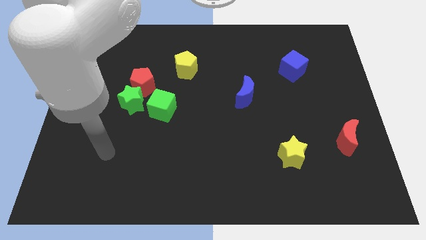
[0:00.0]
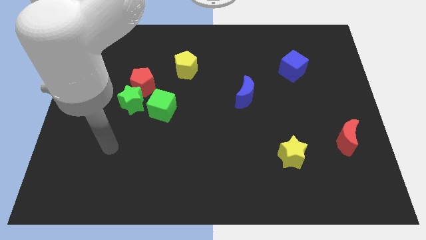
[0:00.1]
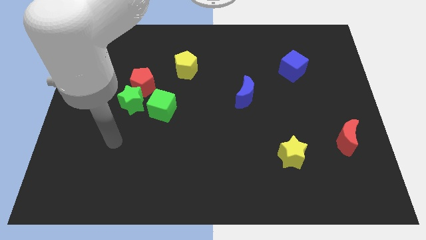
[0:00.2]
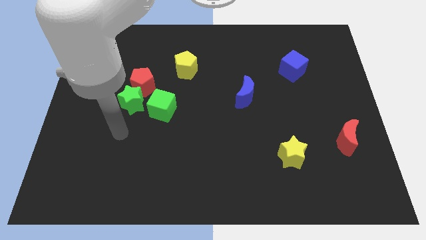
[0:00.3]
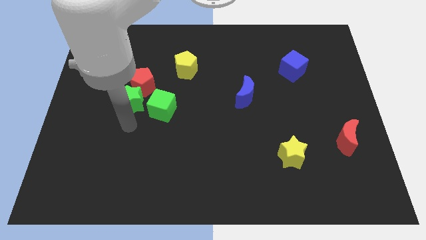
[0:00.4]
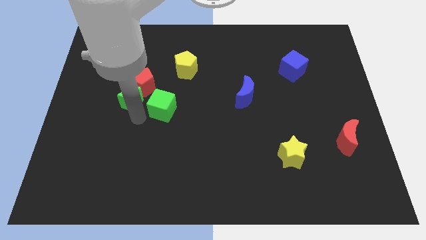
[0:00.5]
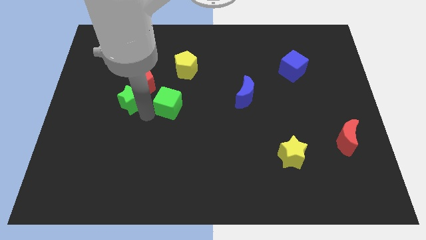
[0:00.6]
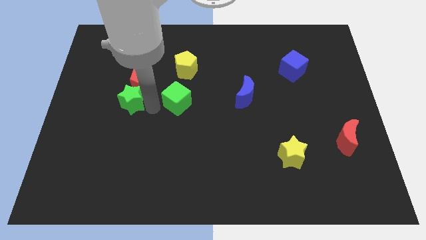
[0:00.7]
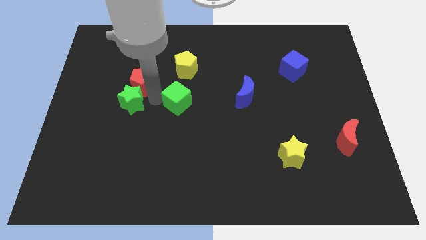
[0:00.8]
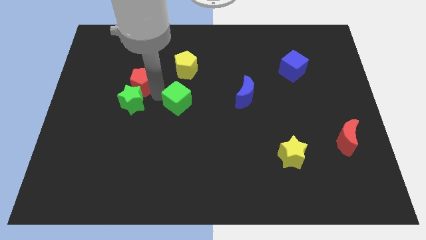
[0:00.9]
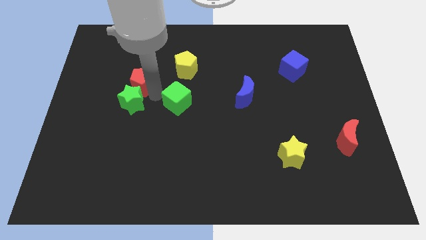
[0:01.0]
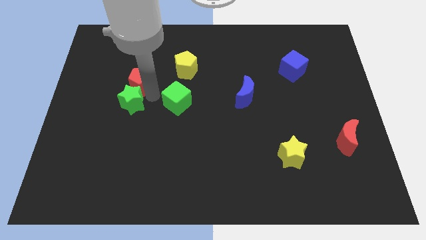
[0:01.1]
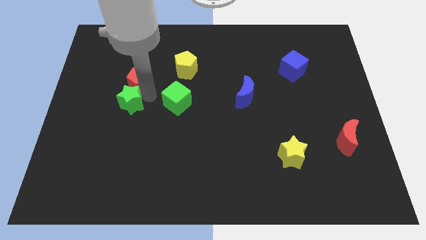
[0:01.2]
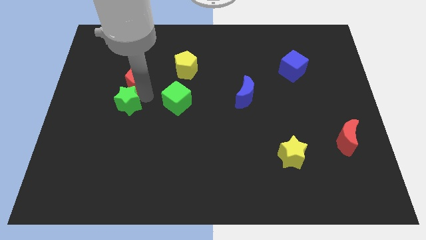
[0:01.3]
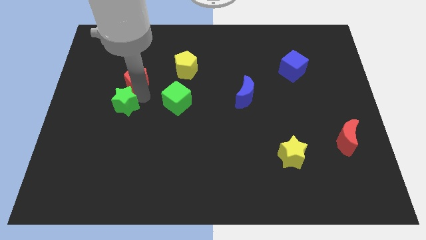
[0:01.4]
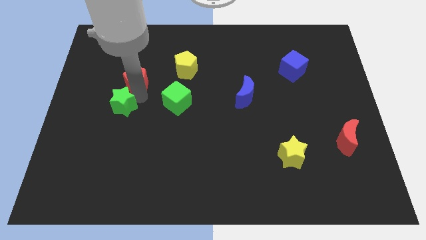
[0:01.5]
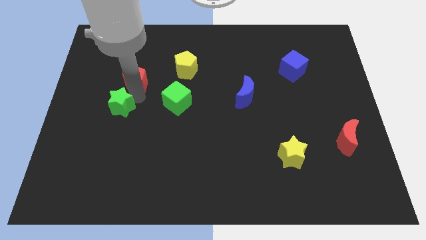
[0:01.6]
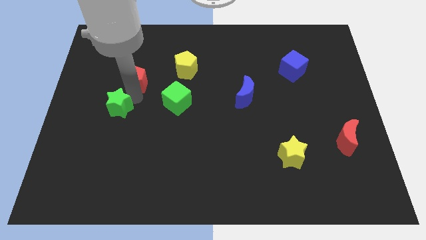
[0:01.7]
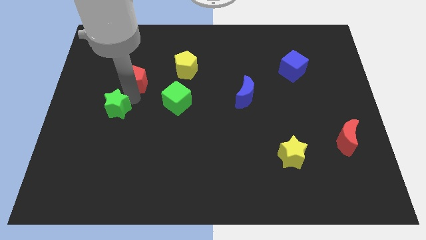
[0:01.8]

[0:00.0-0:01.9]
move the green star away from the red pentagon and green cube

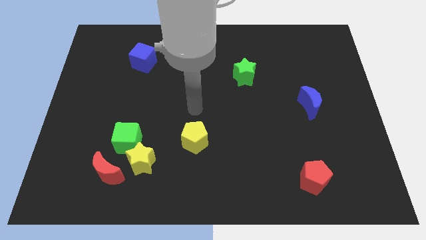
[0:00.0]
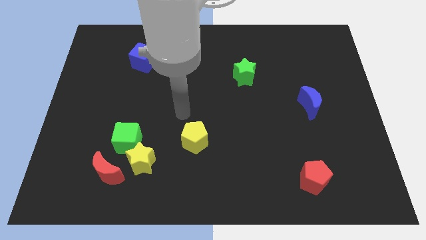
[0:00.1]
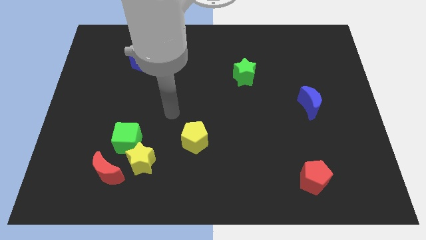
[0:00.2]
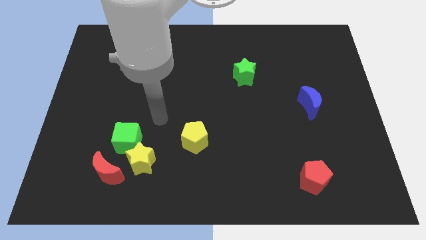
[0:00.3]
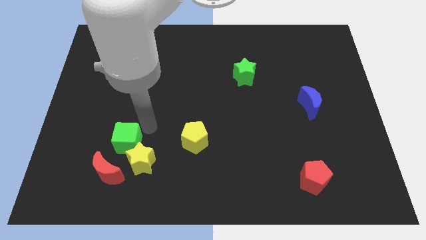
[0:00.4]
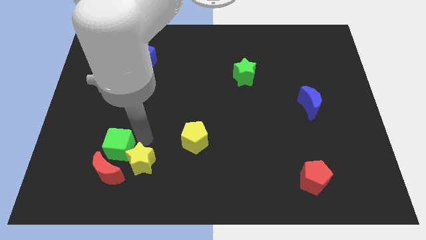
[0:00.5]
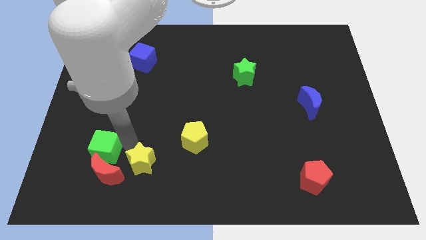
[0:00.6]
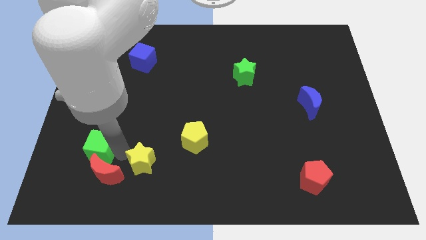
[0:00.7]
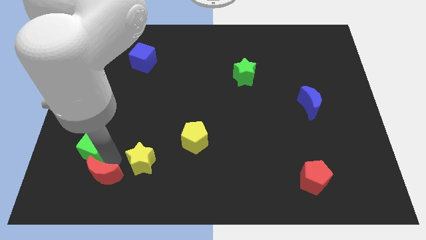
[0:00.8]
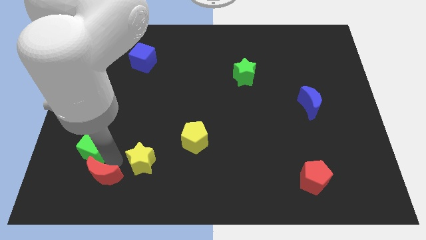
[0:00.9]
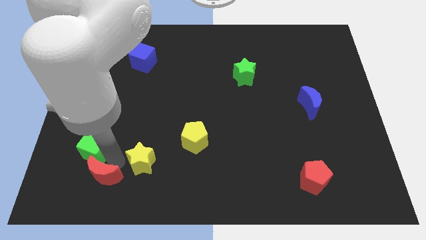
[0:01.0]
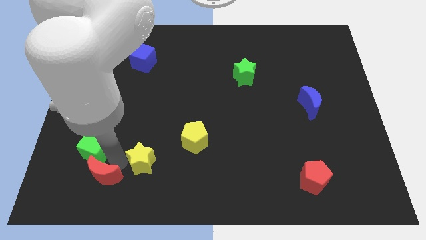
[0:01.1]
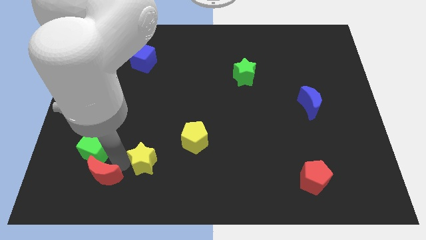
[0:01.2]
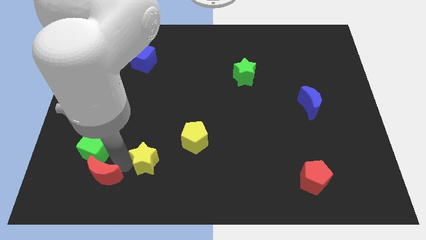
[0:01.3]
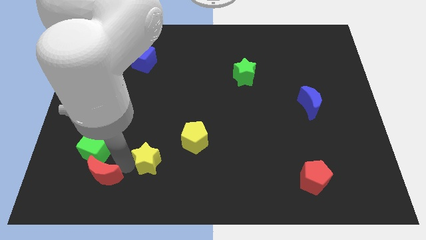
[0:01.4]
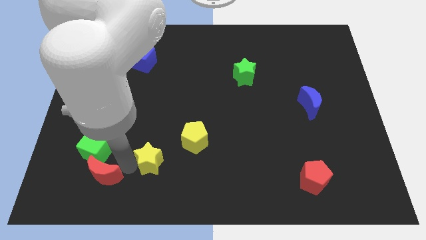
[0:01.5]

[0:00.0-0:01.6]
move the yellow star away from the green cube and red moon

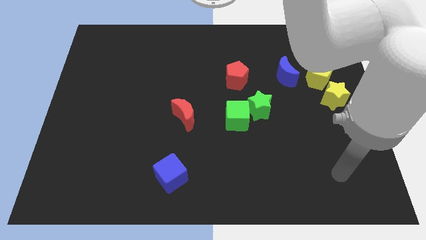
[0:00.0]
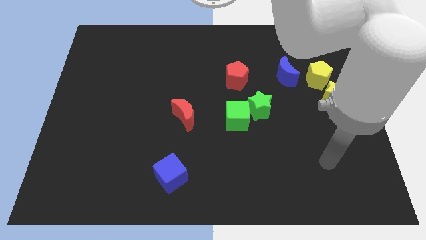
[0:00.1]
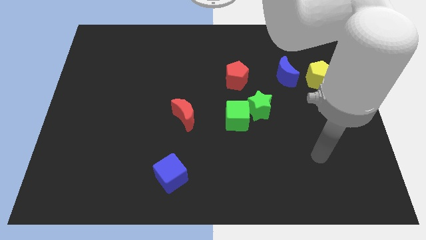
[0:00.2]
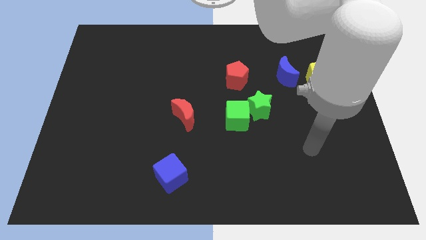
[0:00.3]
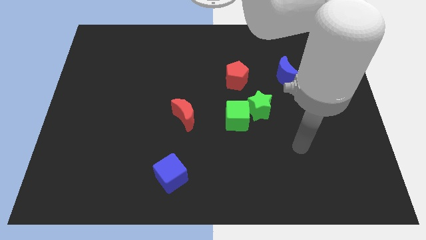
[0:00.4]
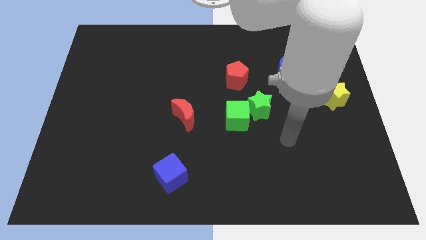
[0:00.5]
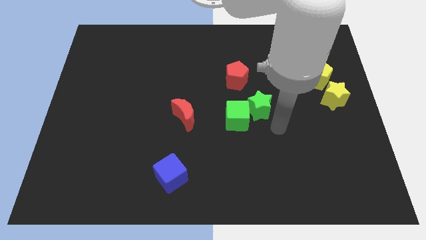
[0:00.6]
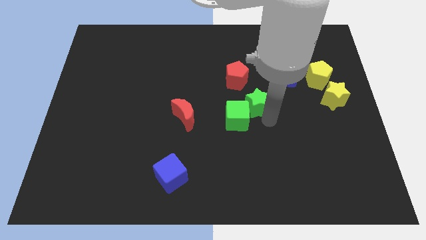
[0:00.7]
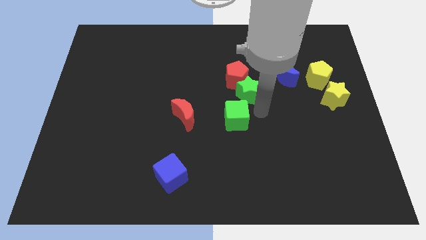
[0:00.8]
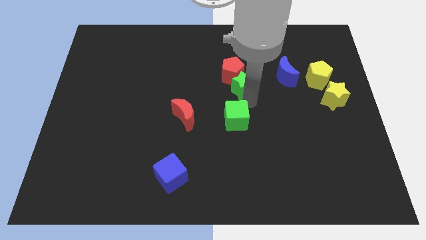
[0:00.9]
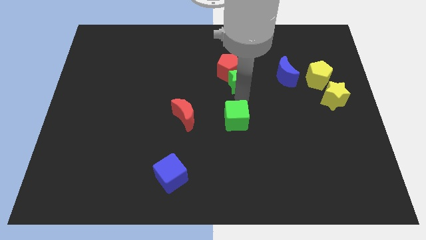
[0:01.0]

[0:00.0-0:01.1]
move the green cube away from the green star

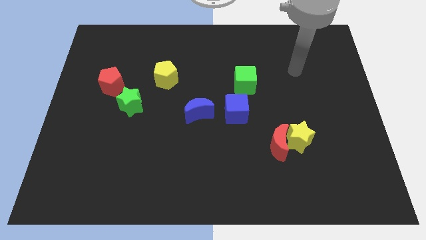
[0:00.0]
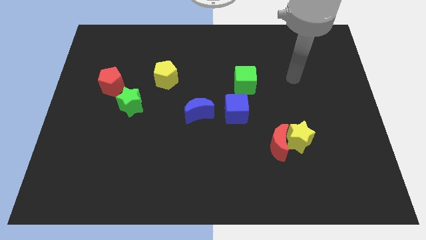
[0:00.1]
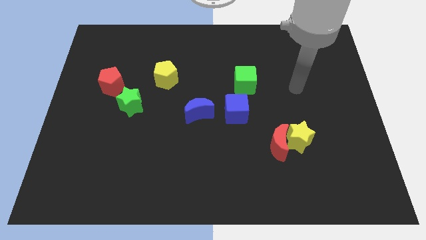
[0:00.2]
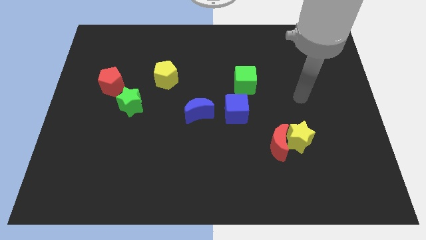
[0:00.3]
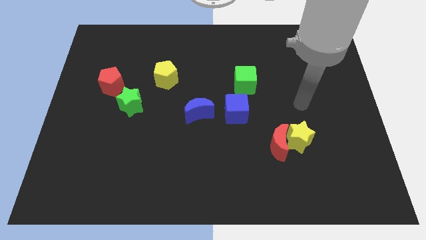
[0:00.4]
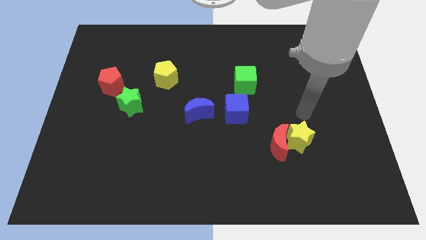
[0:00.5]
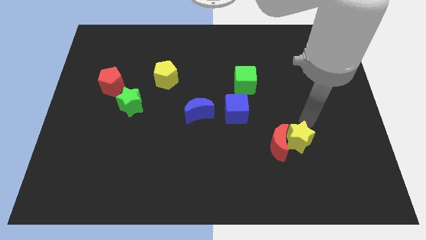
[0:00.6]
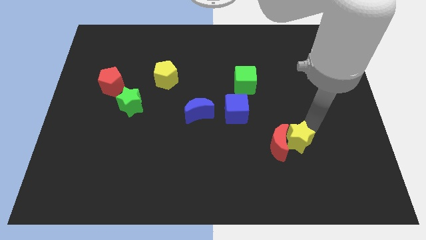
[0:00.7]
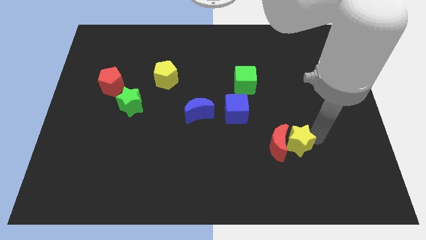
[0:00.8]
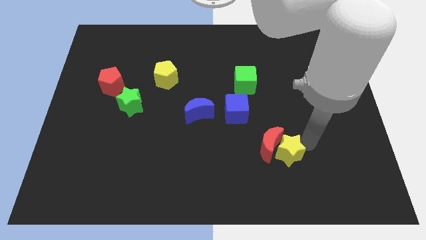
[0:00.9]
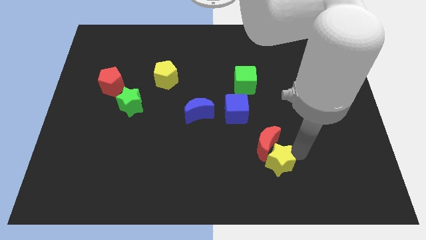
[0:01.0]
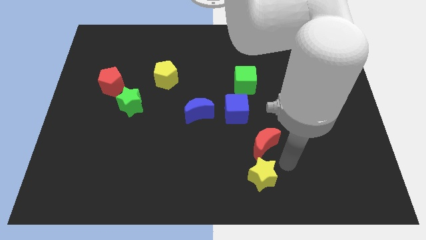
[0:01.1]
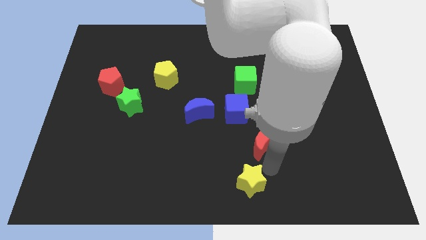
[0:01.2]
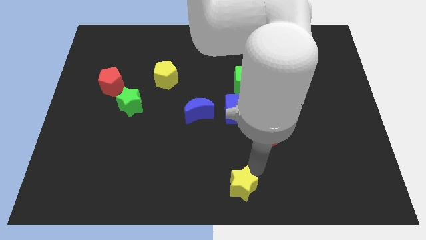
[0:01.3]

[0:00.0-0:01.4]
pull the red moon apart from the yellow star

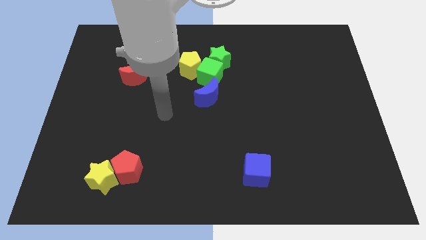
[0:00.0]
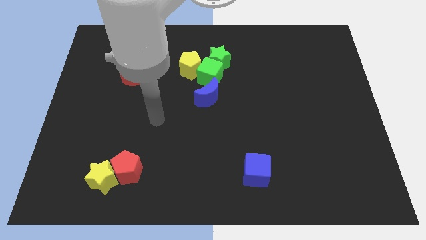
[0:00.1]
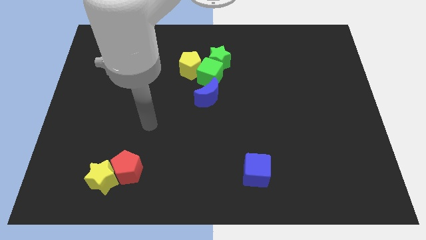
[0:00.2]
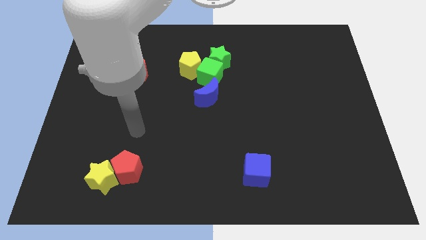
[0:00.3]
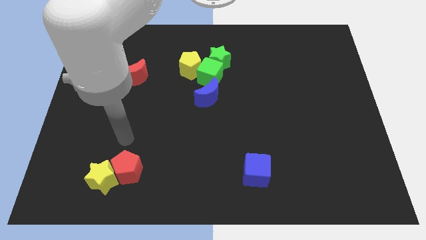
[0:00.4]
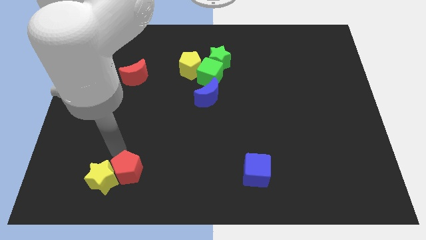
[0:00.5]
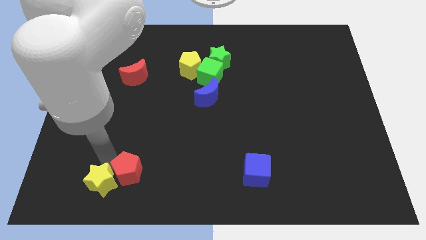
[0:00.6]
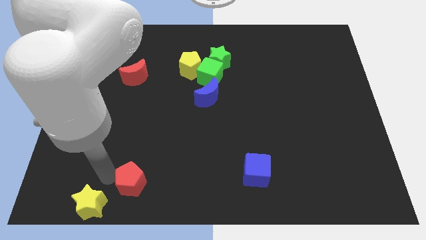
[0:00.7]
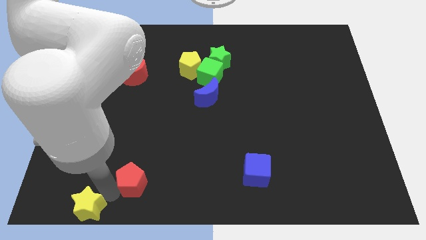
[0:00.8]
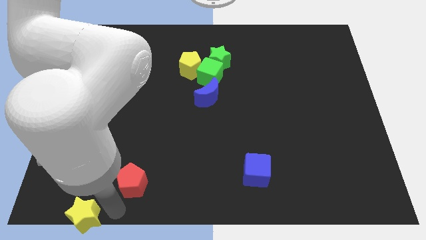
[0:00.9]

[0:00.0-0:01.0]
move the red pentagon away from the yellow star

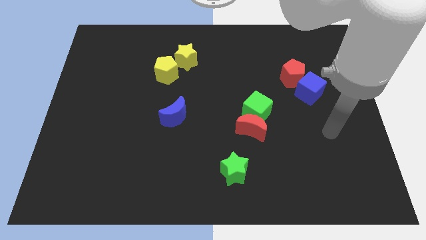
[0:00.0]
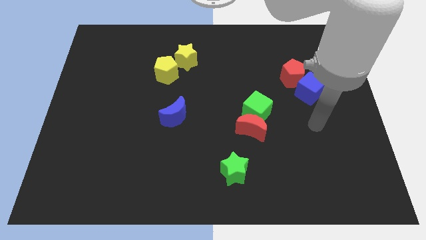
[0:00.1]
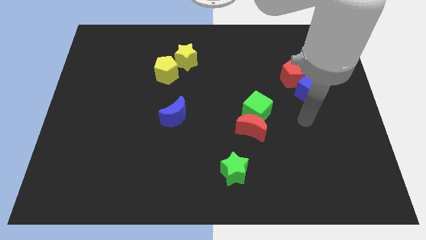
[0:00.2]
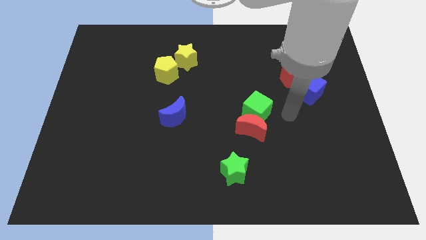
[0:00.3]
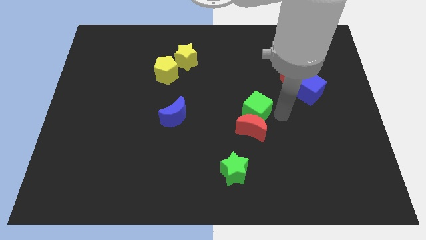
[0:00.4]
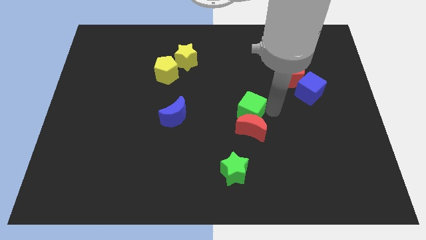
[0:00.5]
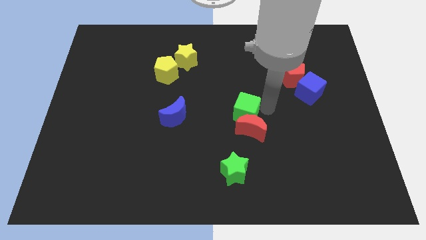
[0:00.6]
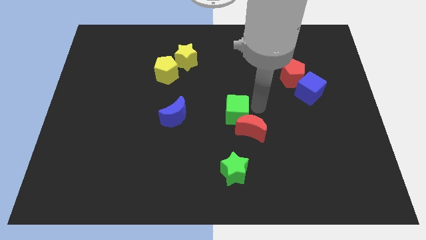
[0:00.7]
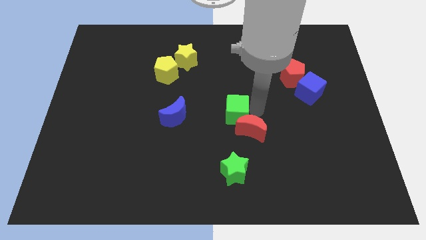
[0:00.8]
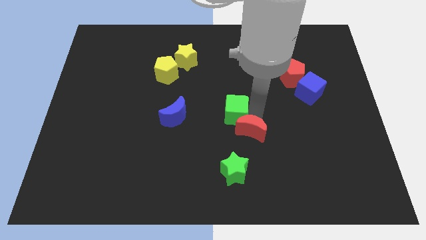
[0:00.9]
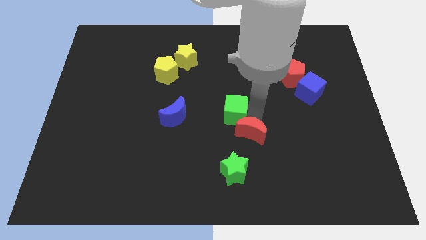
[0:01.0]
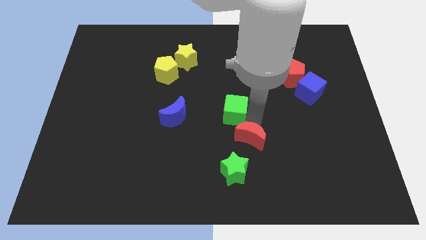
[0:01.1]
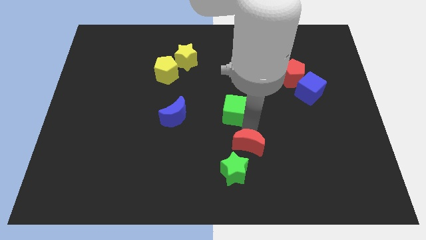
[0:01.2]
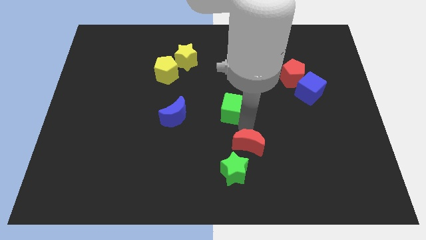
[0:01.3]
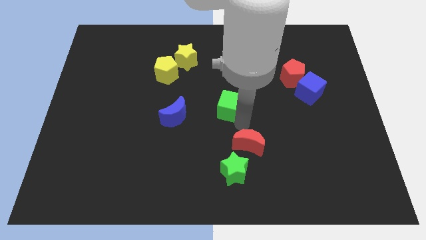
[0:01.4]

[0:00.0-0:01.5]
move the red moon away from the green cube

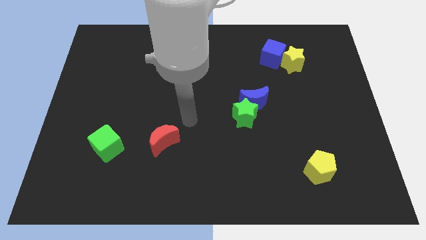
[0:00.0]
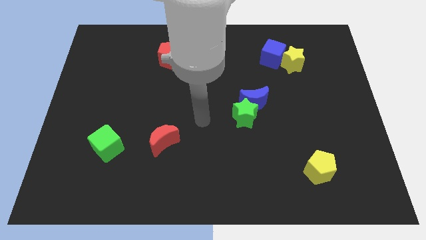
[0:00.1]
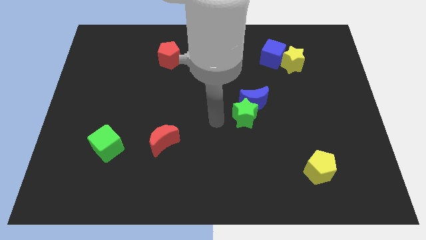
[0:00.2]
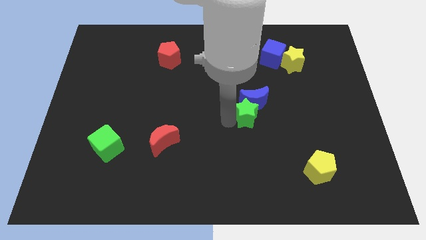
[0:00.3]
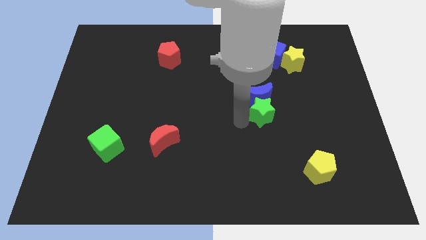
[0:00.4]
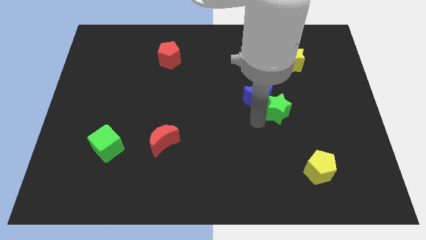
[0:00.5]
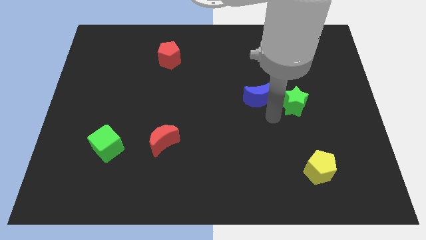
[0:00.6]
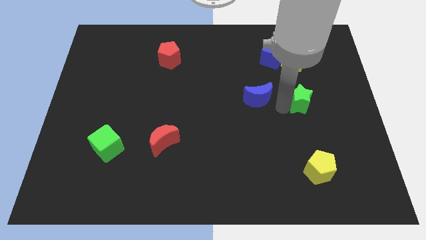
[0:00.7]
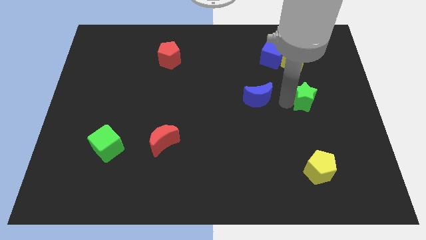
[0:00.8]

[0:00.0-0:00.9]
separate the blue moon from the green star
